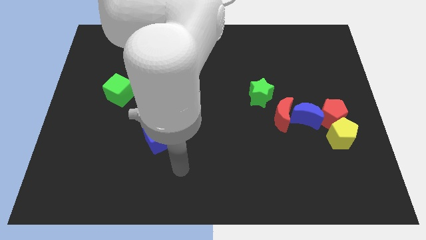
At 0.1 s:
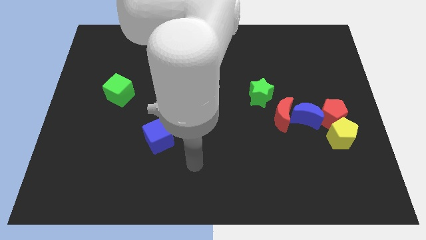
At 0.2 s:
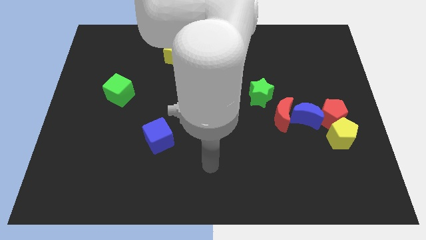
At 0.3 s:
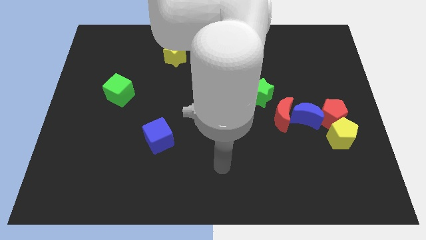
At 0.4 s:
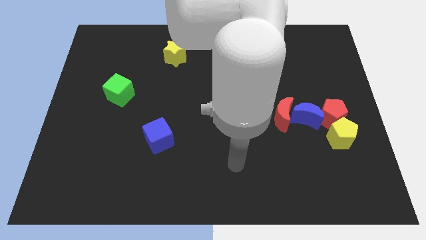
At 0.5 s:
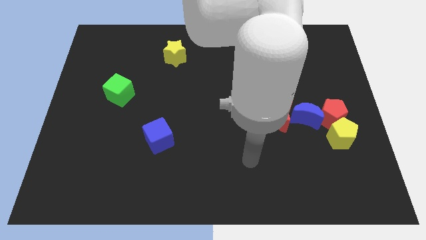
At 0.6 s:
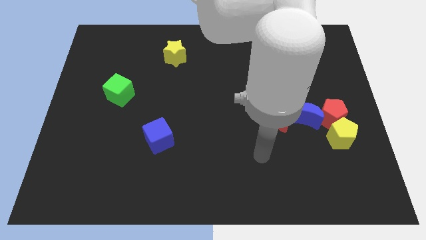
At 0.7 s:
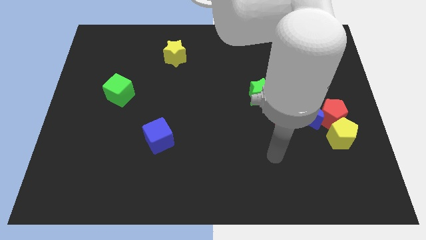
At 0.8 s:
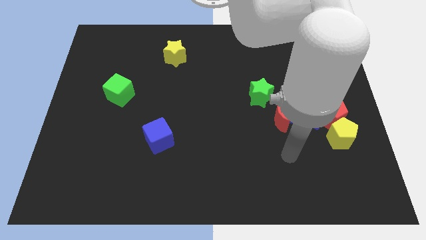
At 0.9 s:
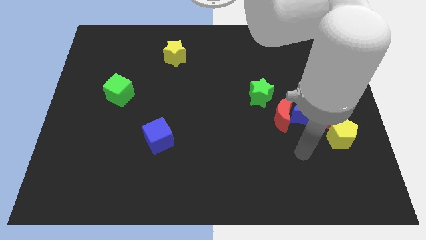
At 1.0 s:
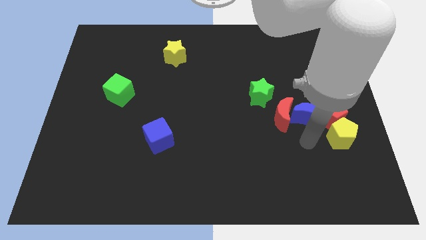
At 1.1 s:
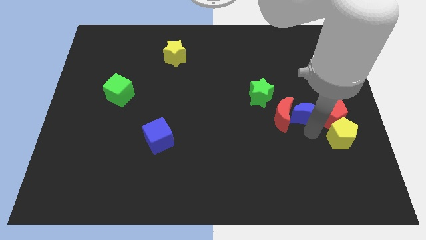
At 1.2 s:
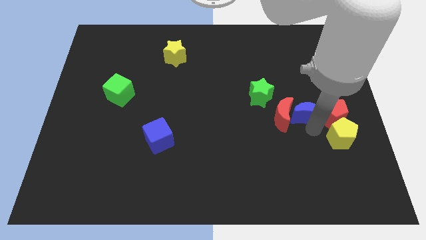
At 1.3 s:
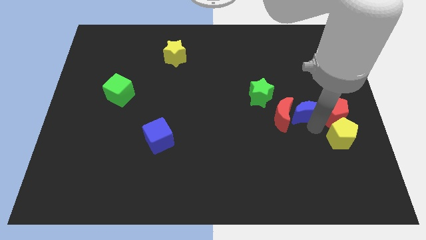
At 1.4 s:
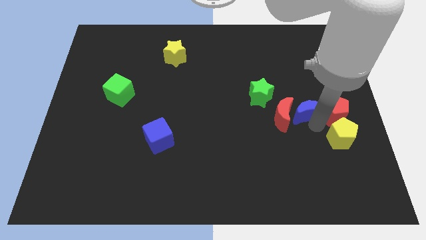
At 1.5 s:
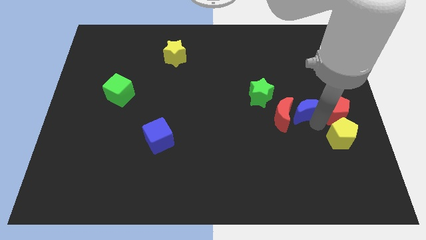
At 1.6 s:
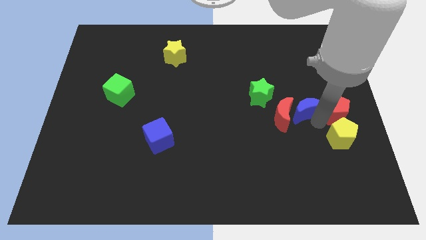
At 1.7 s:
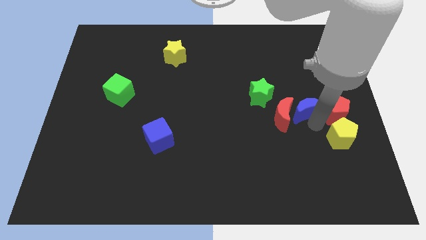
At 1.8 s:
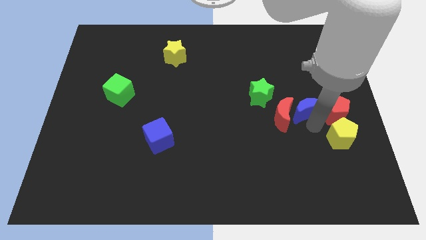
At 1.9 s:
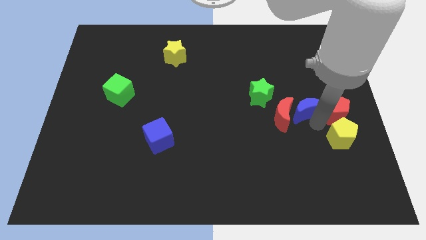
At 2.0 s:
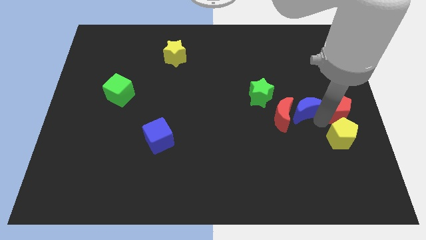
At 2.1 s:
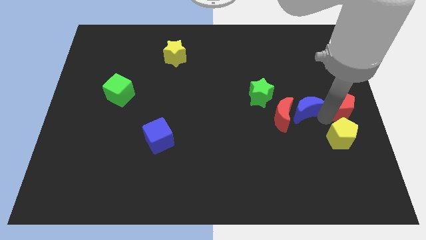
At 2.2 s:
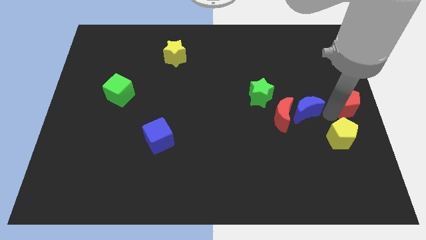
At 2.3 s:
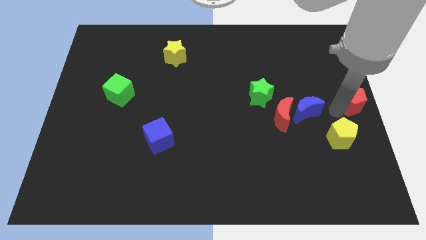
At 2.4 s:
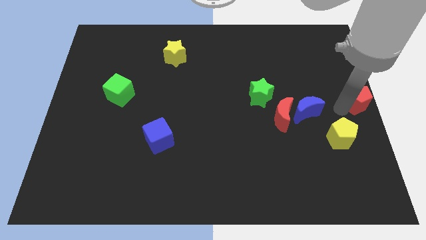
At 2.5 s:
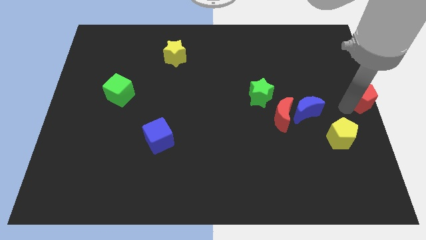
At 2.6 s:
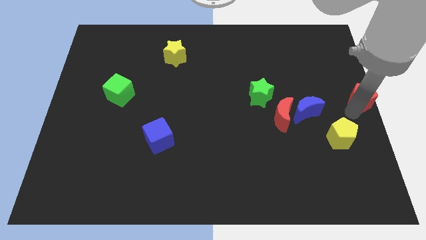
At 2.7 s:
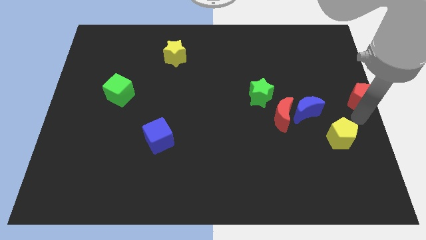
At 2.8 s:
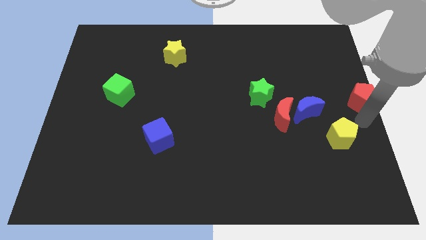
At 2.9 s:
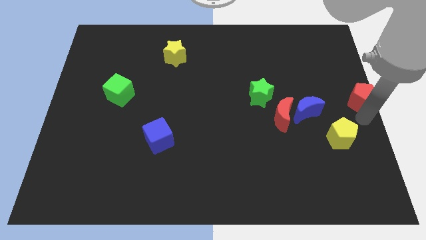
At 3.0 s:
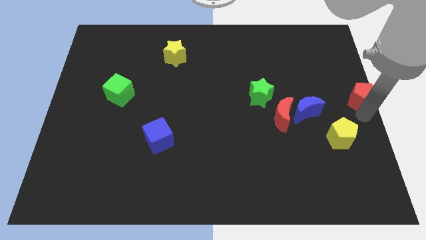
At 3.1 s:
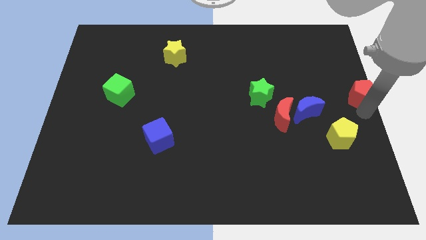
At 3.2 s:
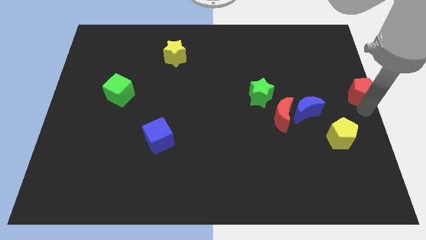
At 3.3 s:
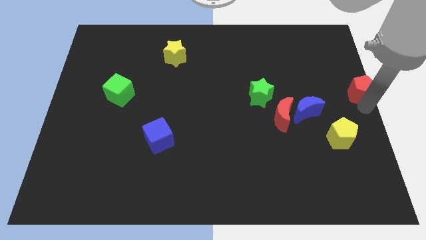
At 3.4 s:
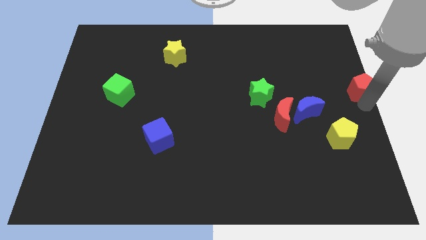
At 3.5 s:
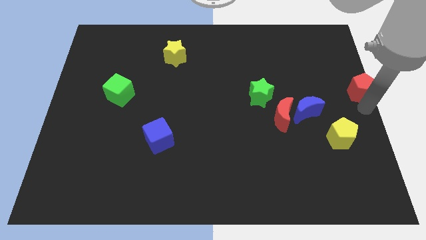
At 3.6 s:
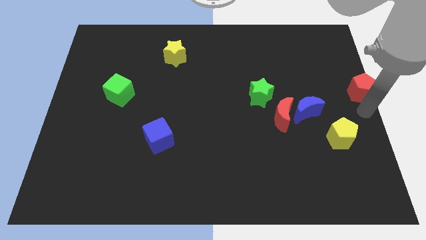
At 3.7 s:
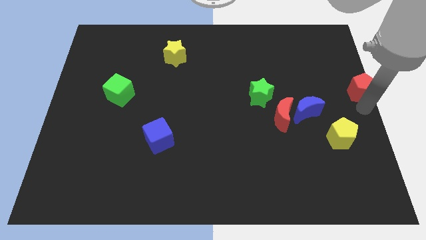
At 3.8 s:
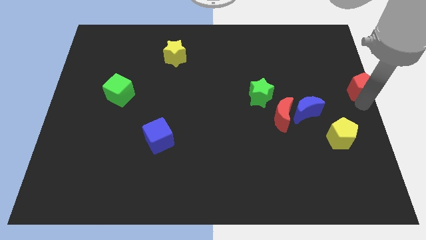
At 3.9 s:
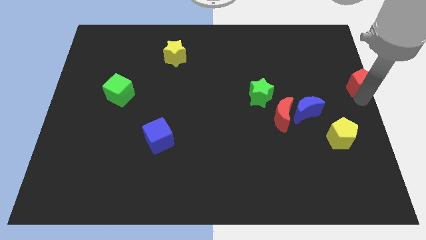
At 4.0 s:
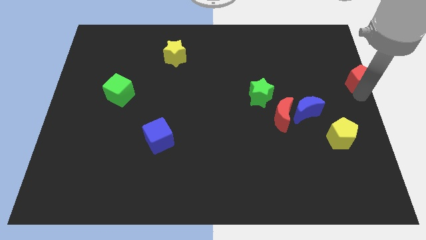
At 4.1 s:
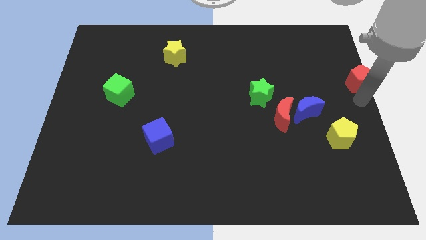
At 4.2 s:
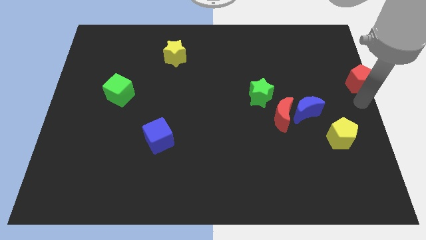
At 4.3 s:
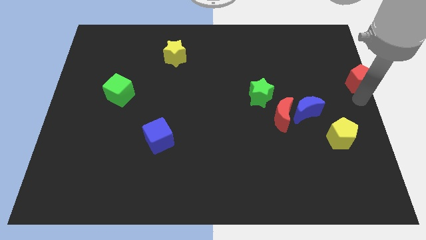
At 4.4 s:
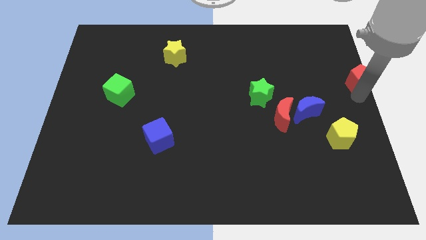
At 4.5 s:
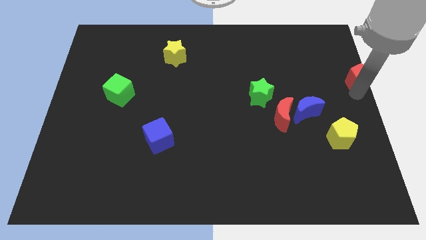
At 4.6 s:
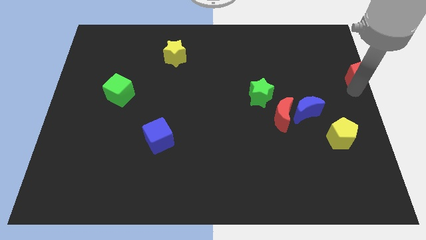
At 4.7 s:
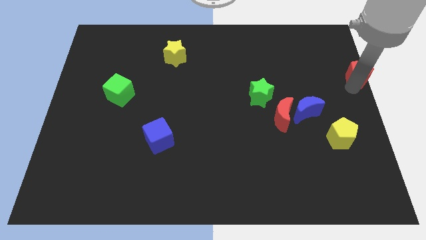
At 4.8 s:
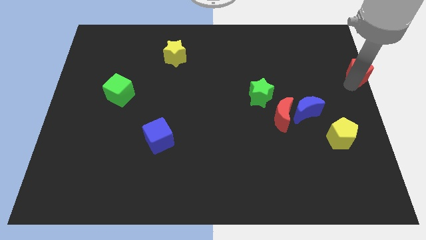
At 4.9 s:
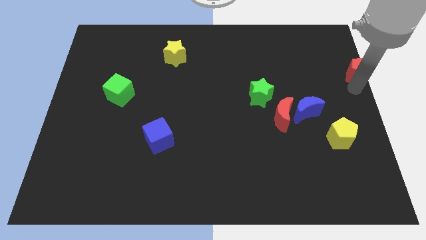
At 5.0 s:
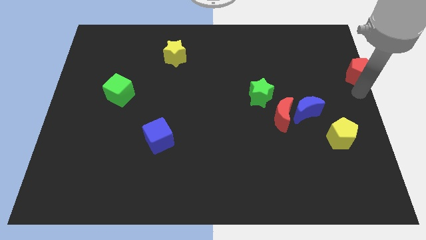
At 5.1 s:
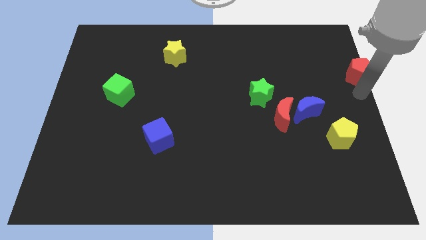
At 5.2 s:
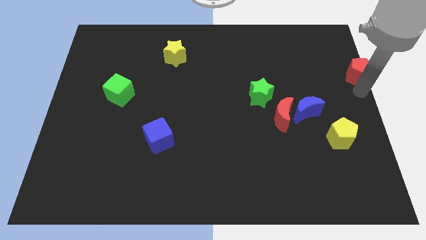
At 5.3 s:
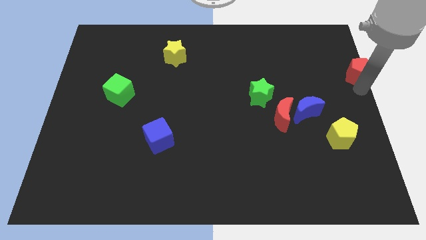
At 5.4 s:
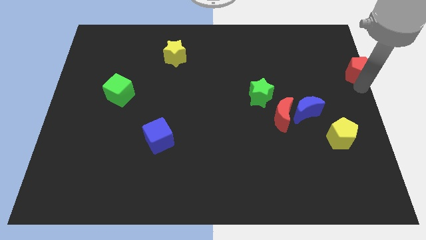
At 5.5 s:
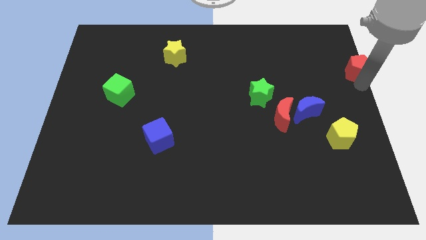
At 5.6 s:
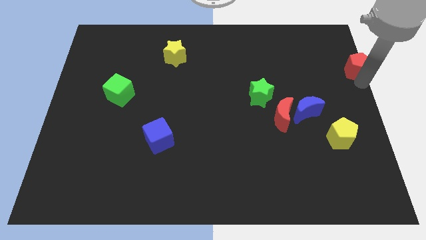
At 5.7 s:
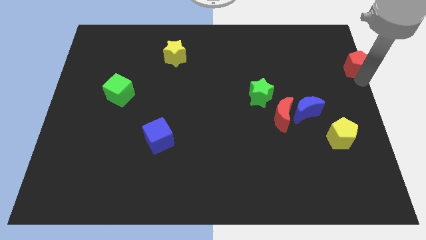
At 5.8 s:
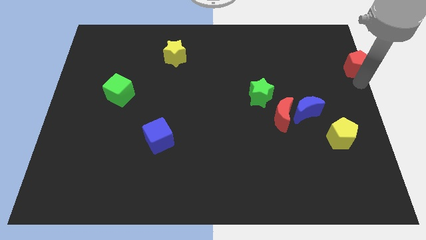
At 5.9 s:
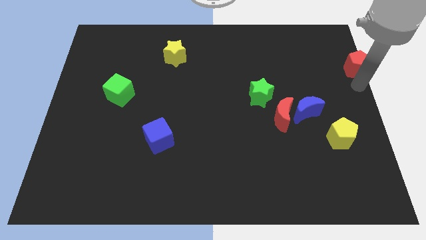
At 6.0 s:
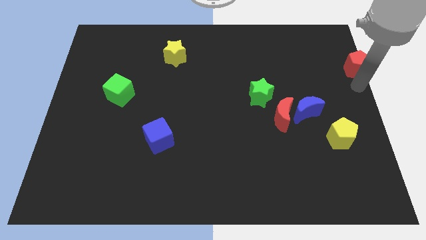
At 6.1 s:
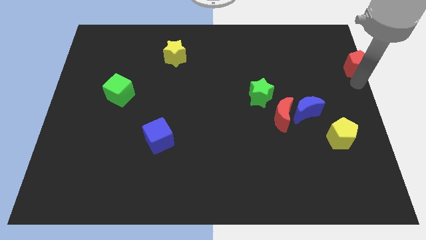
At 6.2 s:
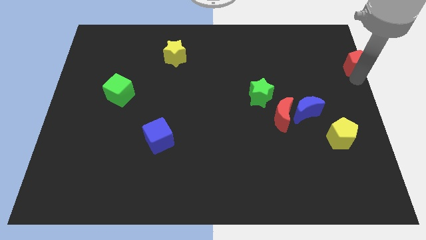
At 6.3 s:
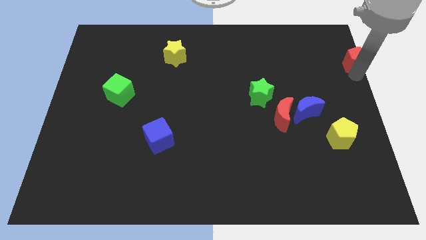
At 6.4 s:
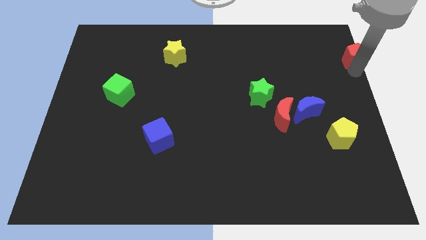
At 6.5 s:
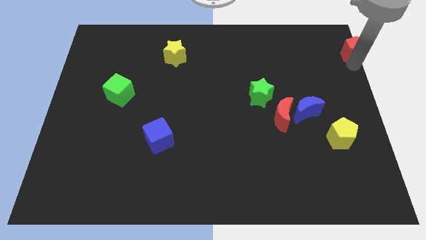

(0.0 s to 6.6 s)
push the red pentagon to the top right
